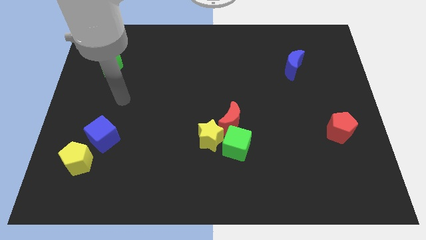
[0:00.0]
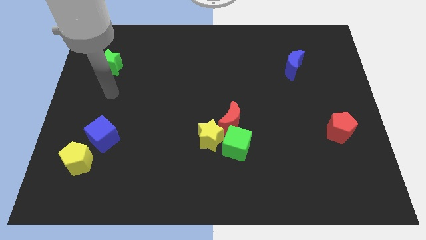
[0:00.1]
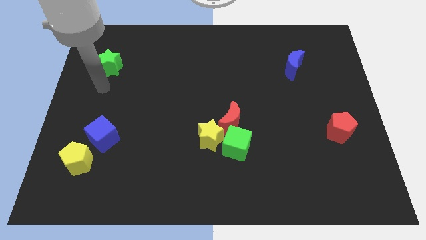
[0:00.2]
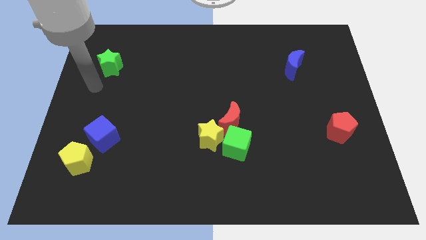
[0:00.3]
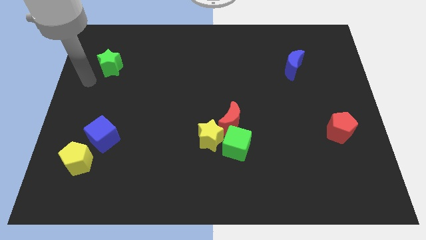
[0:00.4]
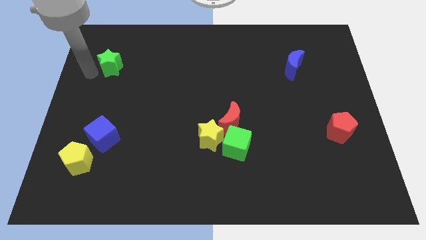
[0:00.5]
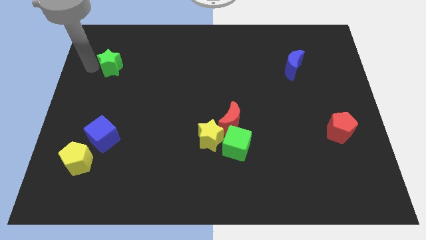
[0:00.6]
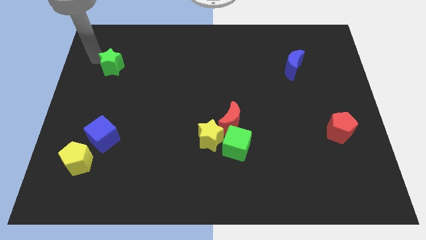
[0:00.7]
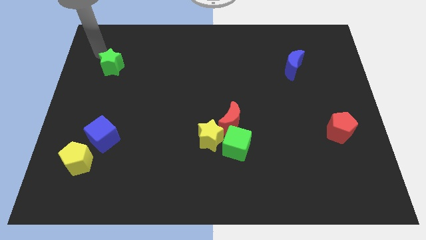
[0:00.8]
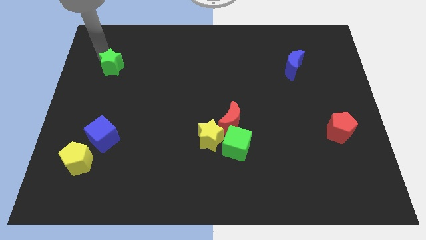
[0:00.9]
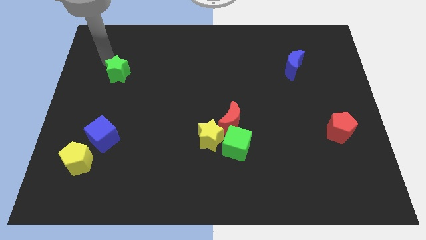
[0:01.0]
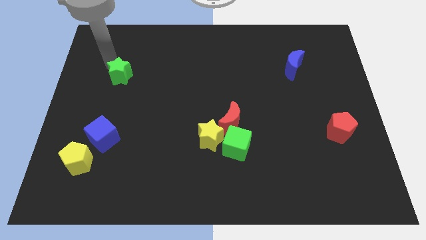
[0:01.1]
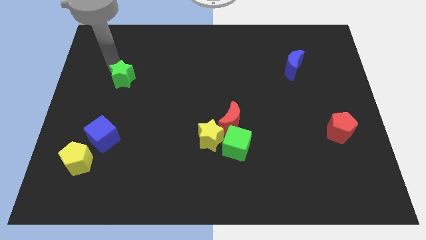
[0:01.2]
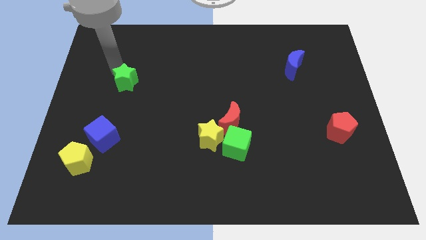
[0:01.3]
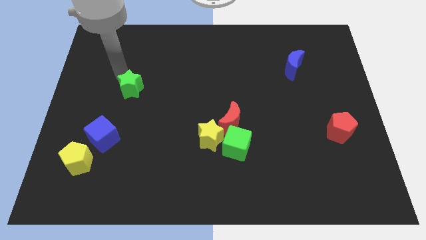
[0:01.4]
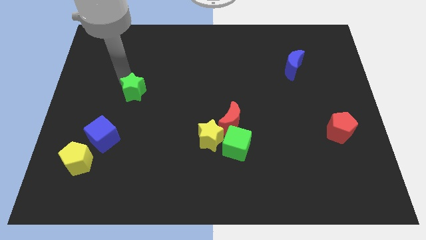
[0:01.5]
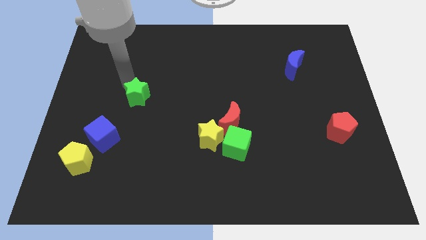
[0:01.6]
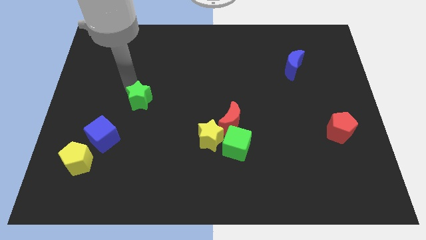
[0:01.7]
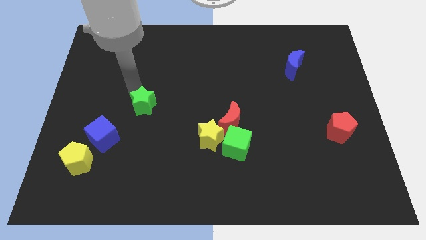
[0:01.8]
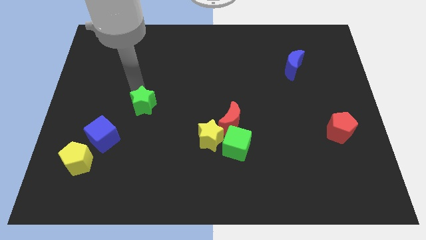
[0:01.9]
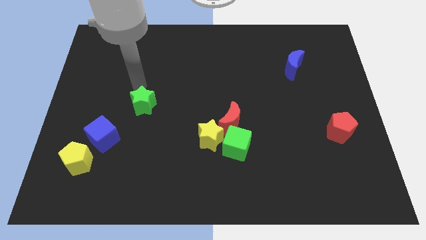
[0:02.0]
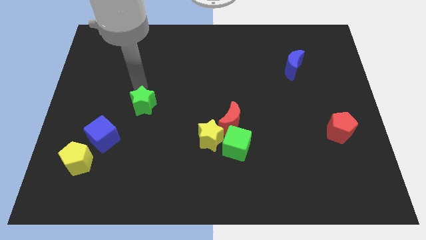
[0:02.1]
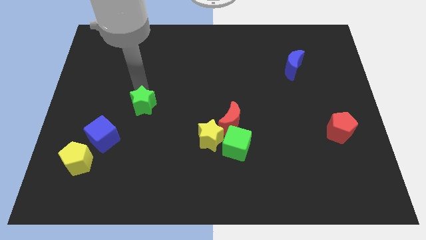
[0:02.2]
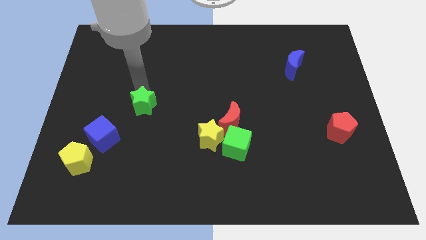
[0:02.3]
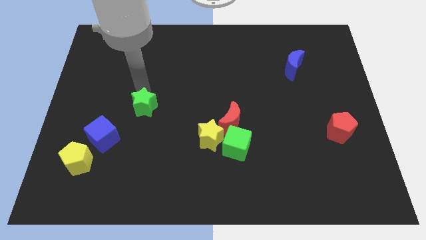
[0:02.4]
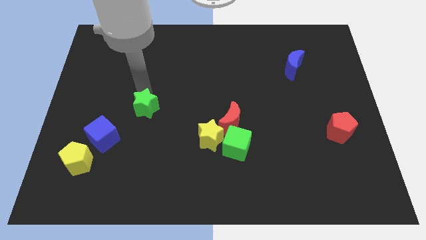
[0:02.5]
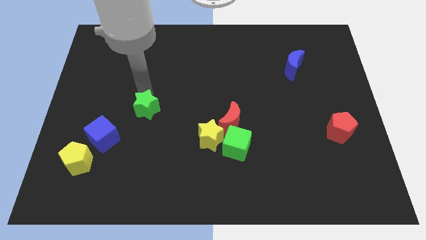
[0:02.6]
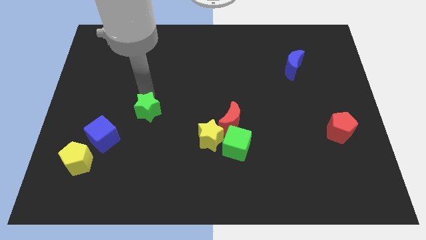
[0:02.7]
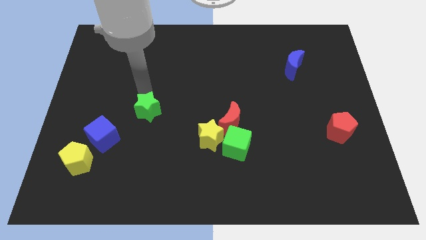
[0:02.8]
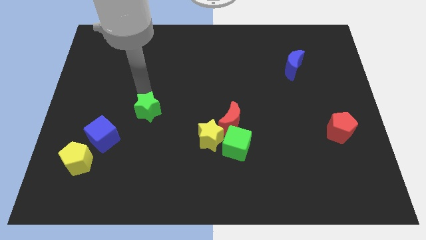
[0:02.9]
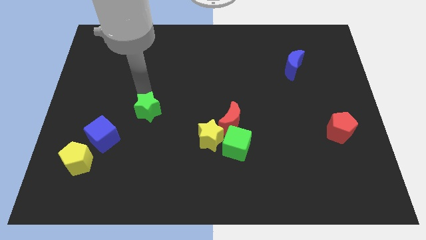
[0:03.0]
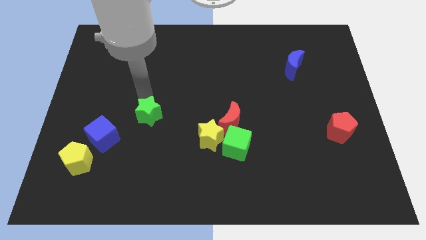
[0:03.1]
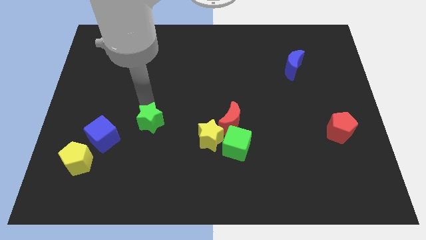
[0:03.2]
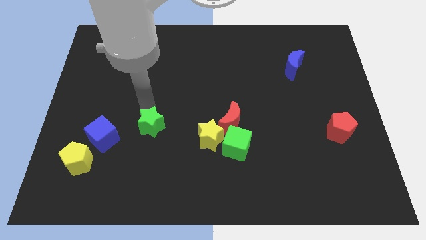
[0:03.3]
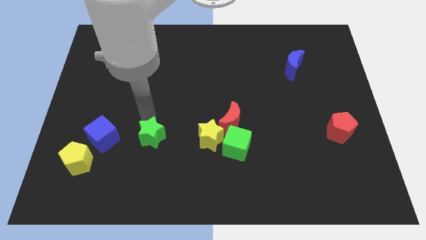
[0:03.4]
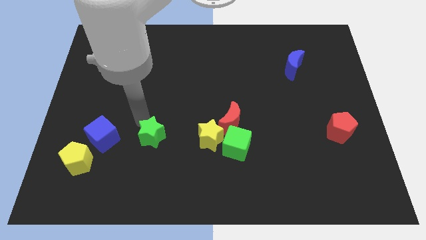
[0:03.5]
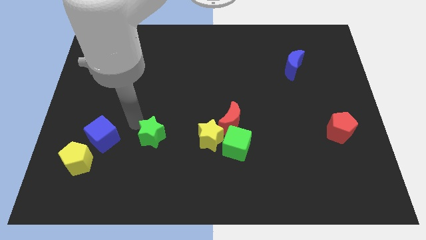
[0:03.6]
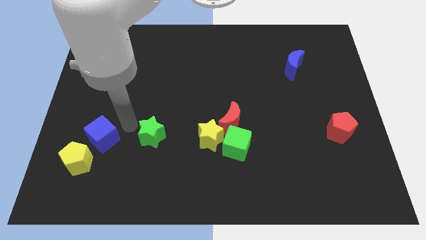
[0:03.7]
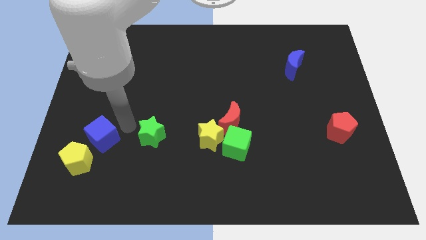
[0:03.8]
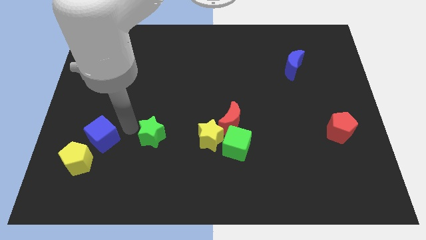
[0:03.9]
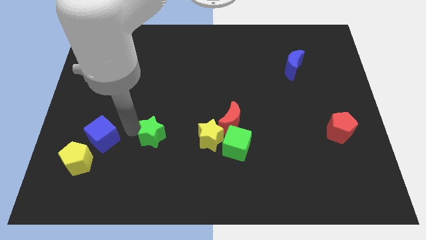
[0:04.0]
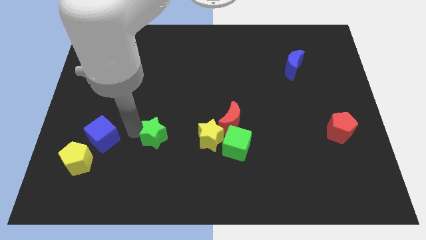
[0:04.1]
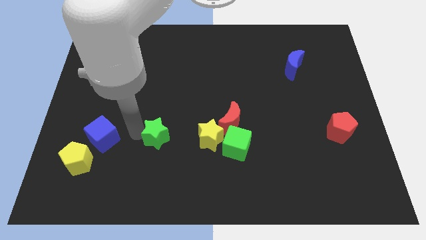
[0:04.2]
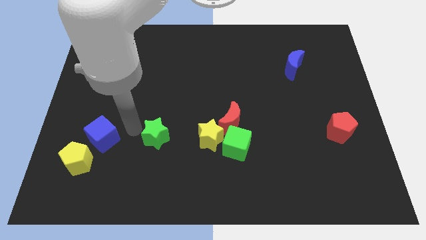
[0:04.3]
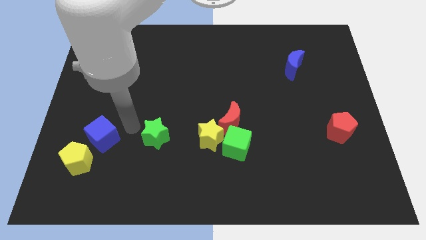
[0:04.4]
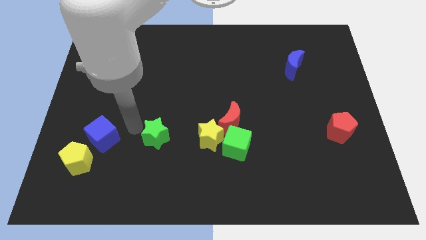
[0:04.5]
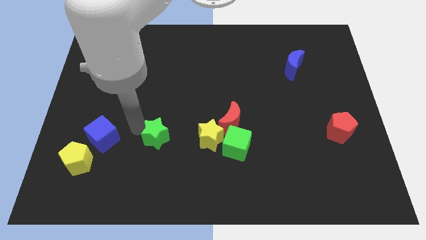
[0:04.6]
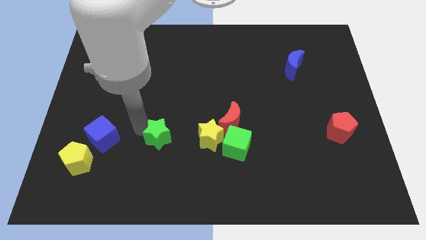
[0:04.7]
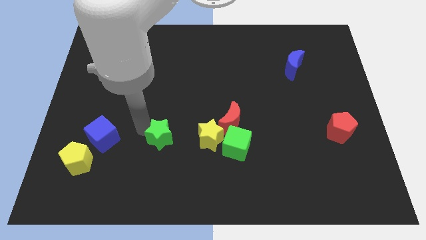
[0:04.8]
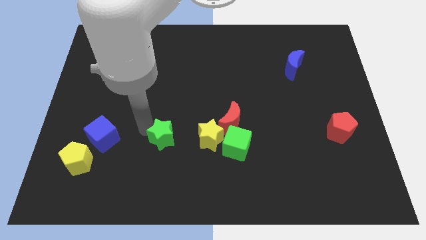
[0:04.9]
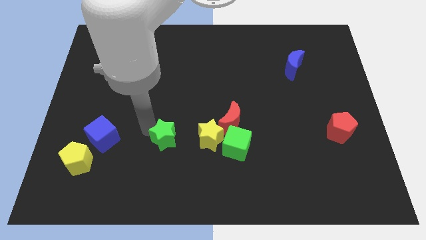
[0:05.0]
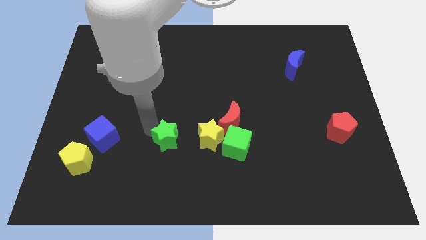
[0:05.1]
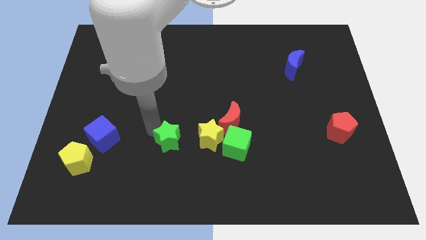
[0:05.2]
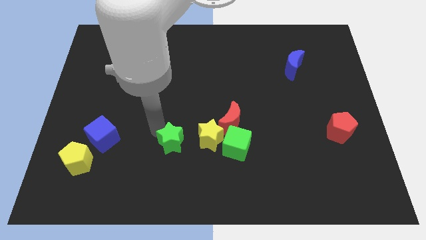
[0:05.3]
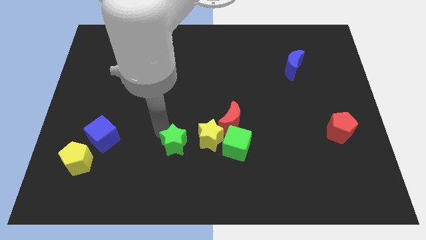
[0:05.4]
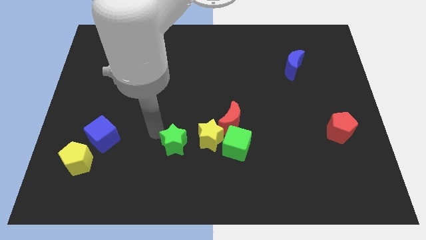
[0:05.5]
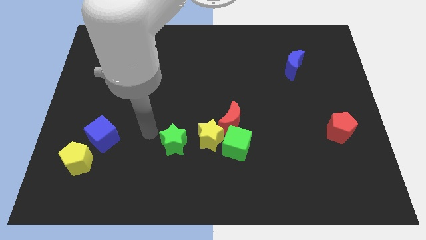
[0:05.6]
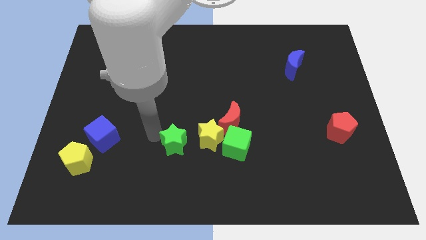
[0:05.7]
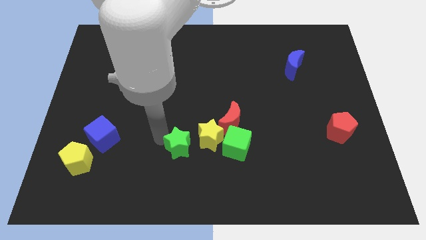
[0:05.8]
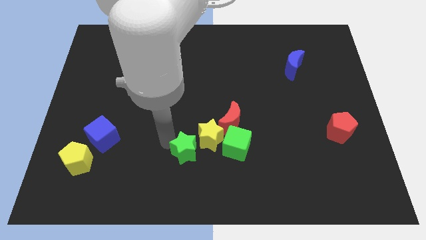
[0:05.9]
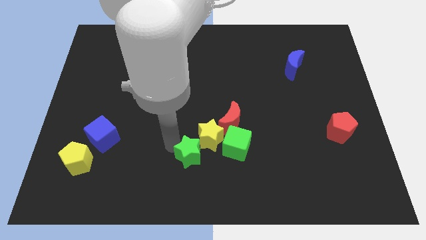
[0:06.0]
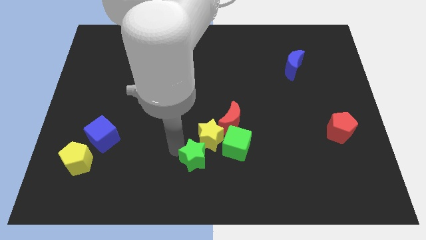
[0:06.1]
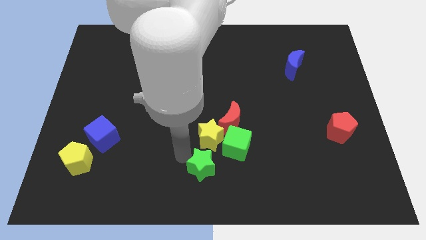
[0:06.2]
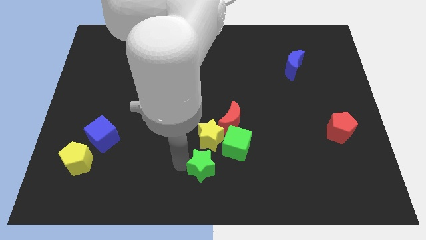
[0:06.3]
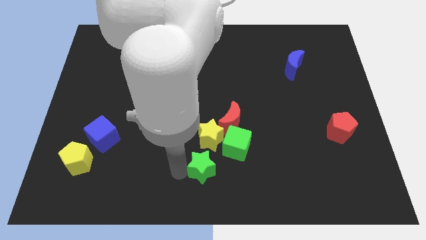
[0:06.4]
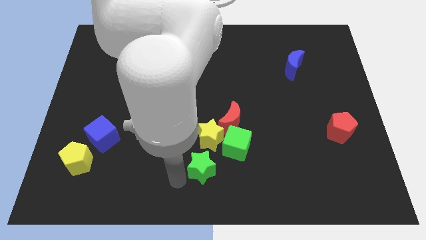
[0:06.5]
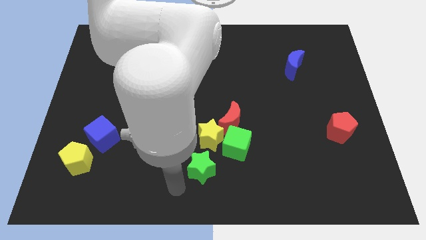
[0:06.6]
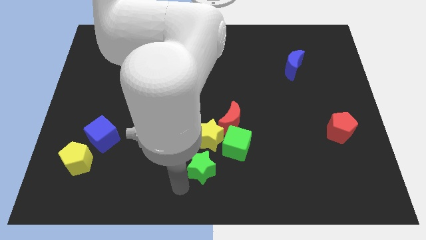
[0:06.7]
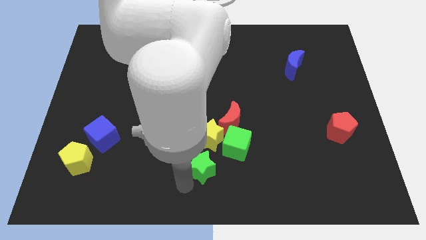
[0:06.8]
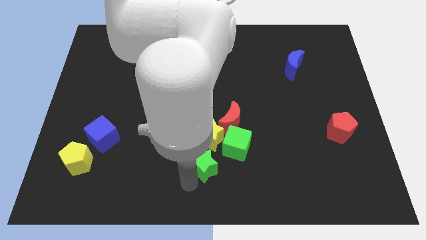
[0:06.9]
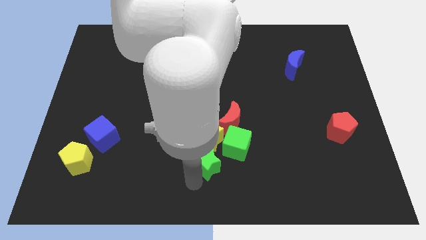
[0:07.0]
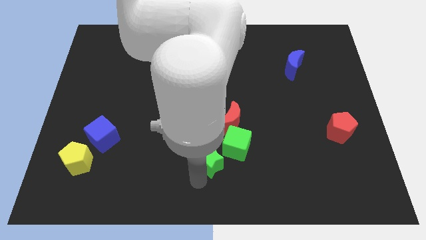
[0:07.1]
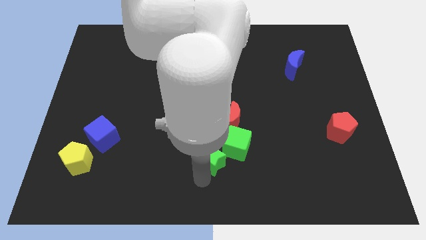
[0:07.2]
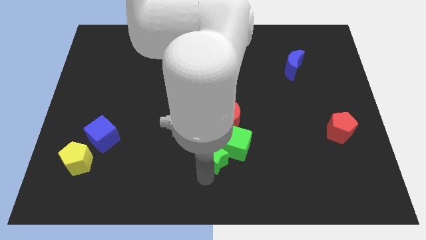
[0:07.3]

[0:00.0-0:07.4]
slide the green star towards the green cube
